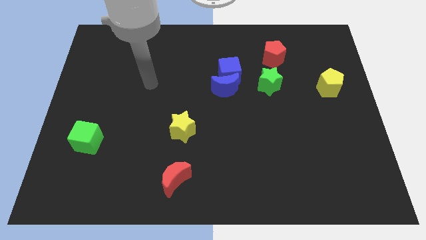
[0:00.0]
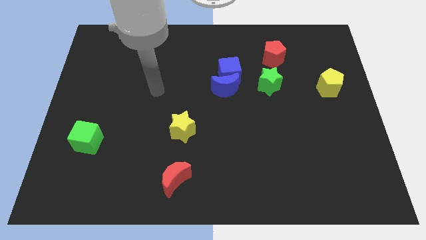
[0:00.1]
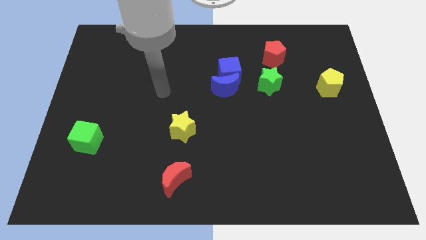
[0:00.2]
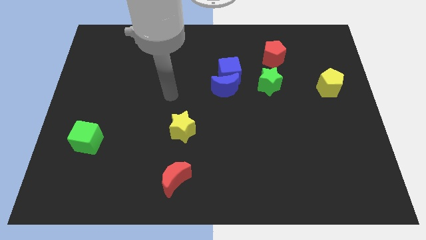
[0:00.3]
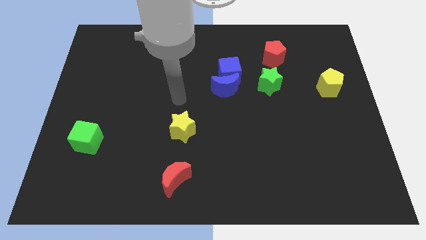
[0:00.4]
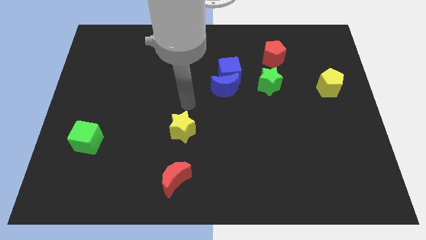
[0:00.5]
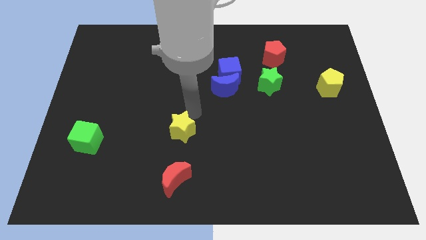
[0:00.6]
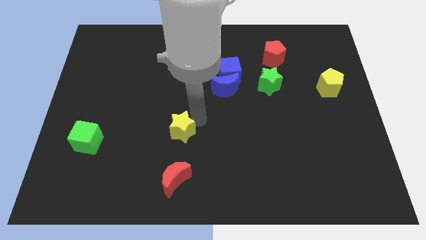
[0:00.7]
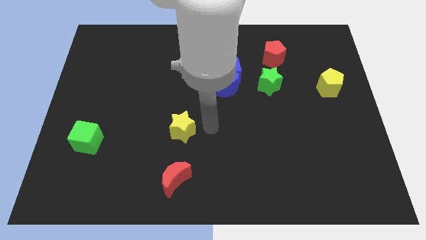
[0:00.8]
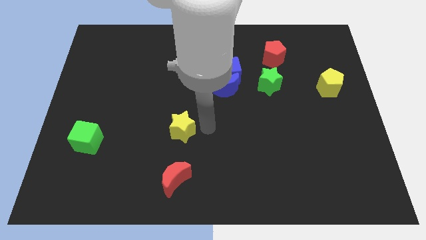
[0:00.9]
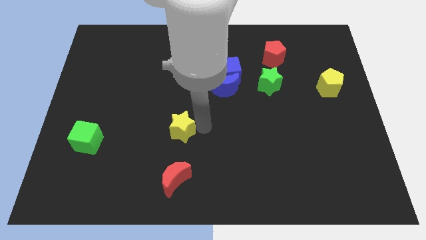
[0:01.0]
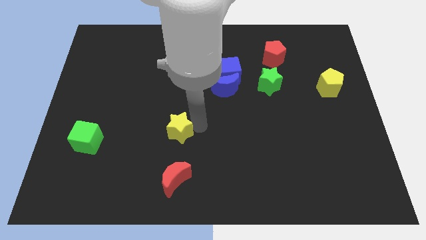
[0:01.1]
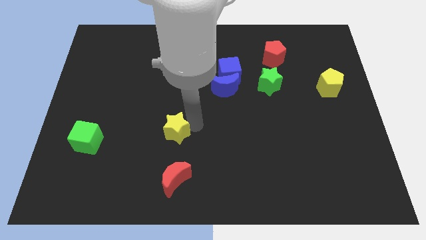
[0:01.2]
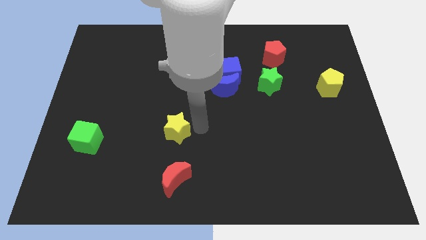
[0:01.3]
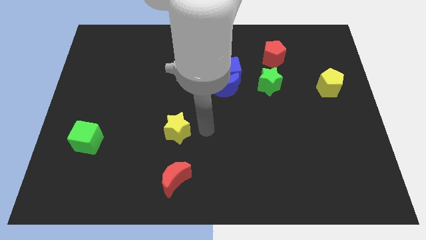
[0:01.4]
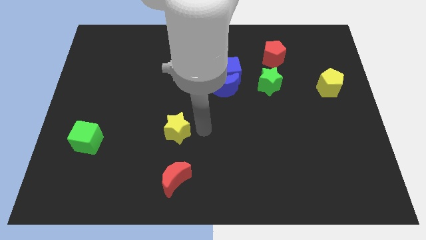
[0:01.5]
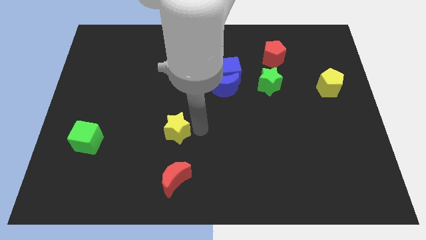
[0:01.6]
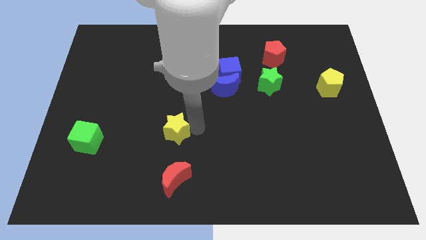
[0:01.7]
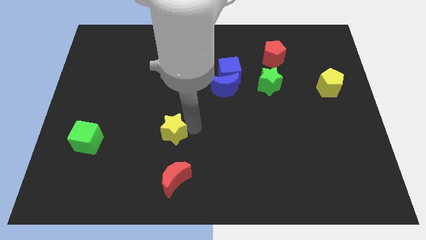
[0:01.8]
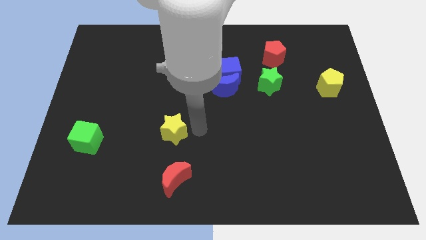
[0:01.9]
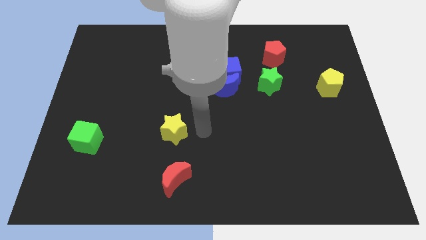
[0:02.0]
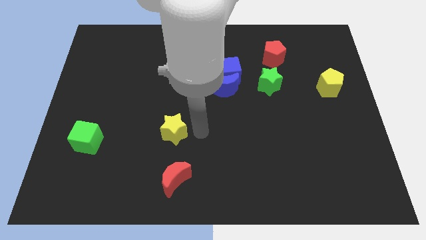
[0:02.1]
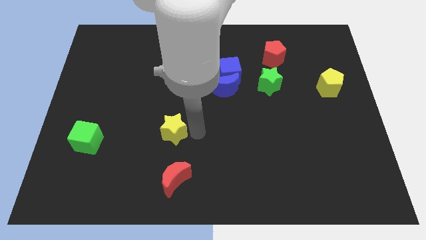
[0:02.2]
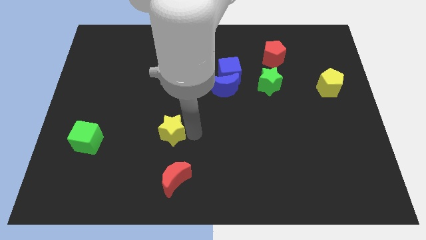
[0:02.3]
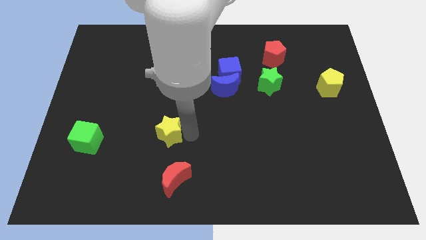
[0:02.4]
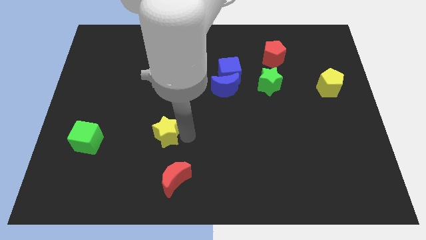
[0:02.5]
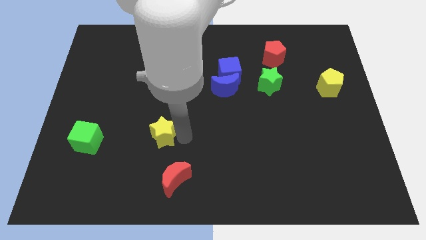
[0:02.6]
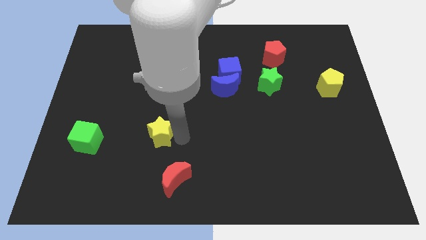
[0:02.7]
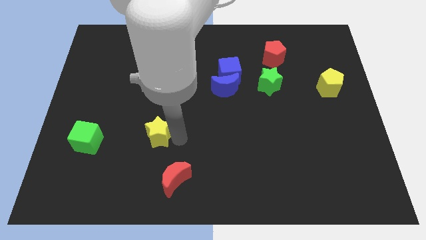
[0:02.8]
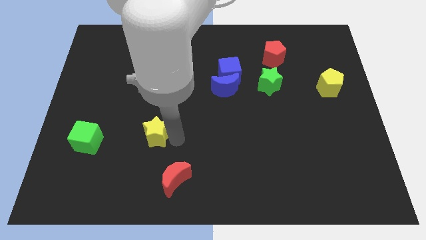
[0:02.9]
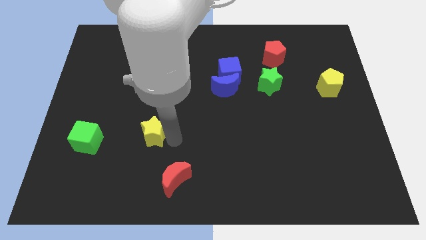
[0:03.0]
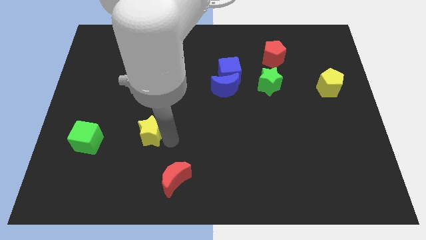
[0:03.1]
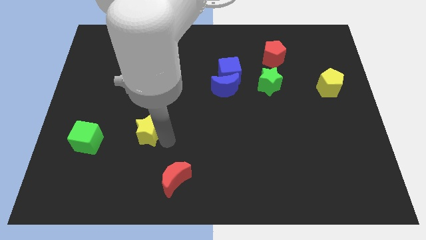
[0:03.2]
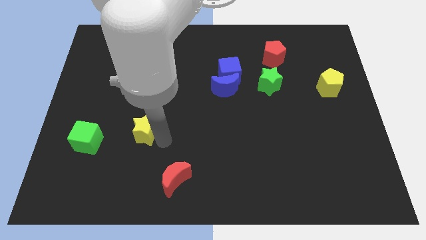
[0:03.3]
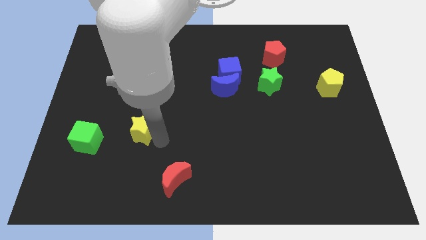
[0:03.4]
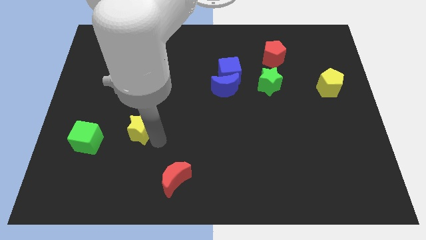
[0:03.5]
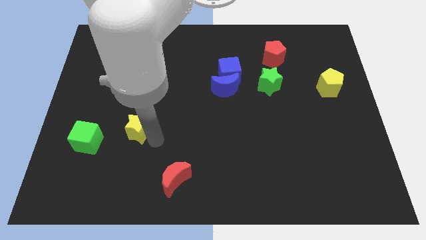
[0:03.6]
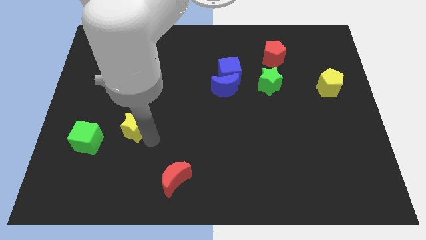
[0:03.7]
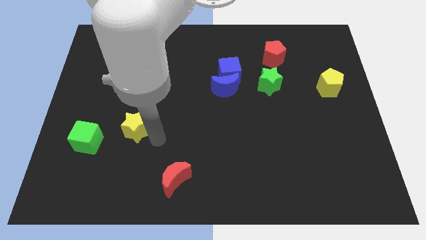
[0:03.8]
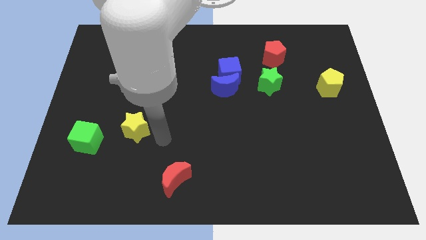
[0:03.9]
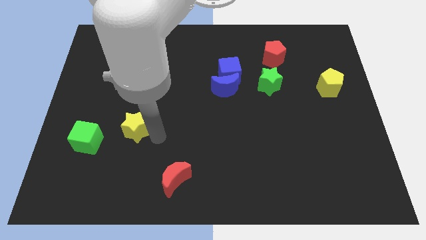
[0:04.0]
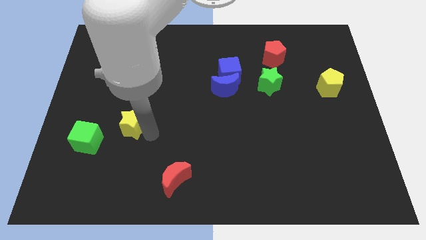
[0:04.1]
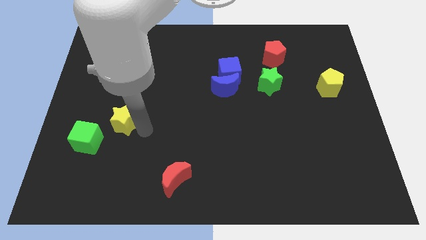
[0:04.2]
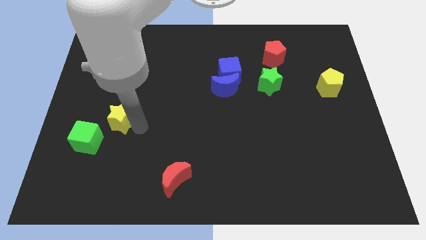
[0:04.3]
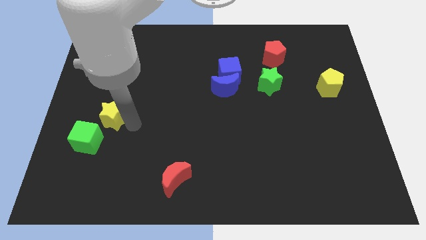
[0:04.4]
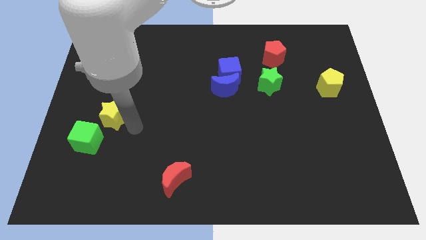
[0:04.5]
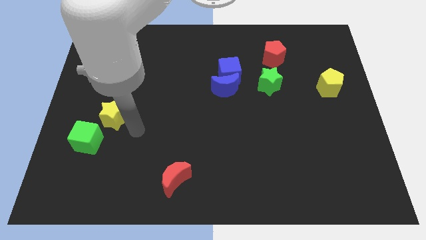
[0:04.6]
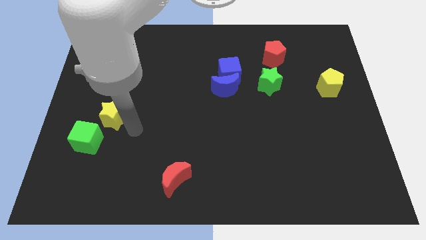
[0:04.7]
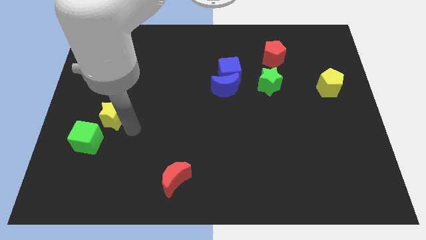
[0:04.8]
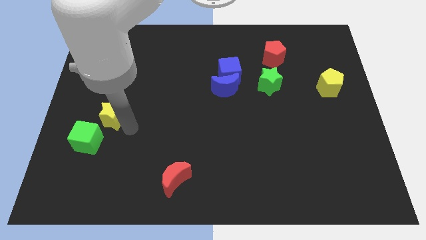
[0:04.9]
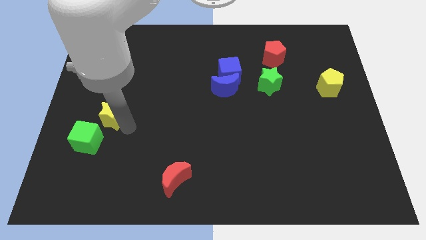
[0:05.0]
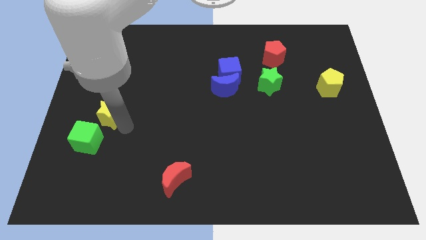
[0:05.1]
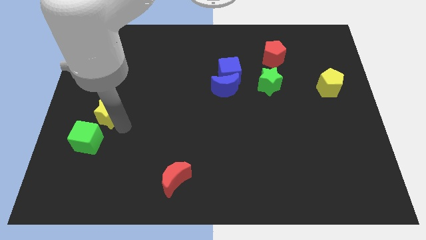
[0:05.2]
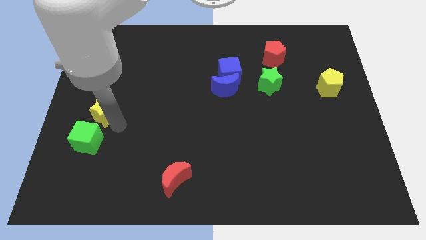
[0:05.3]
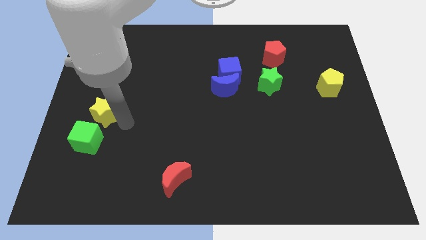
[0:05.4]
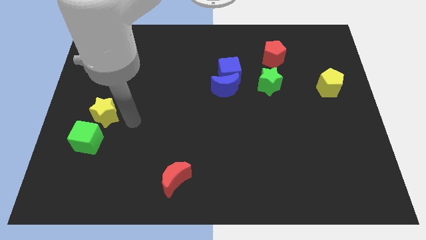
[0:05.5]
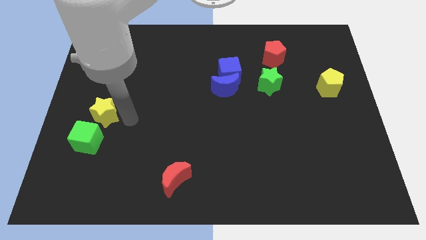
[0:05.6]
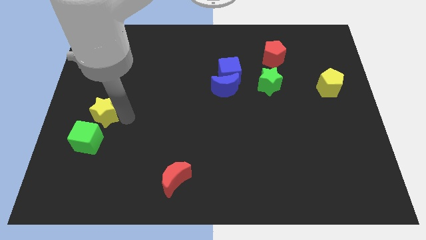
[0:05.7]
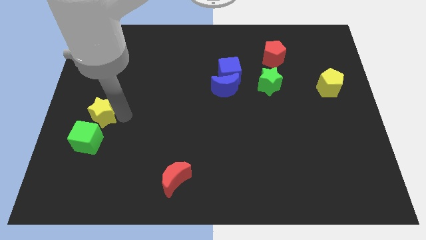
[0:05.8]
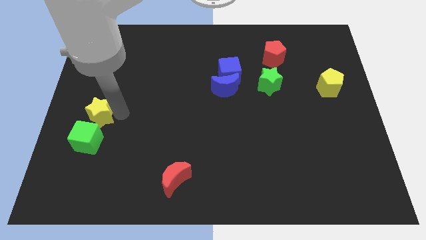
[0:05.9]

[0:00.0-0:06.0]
put the yellow star to the left side of the board

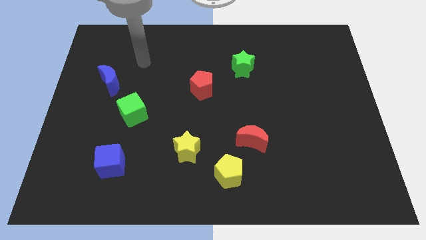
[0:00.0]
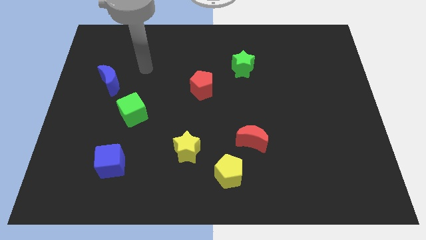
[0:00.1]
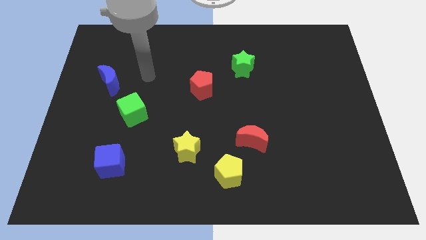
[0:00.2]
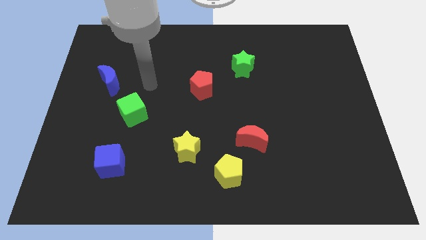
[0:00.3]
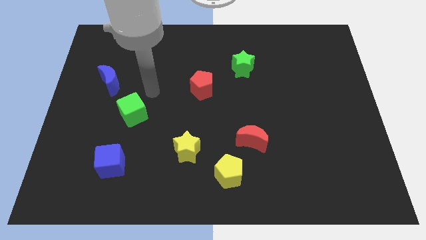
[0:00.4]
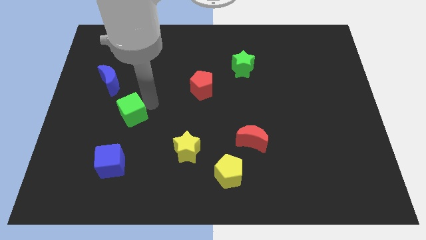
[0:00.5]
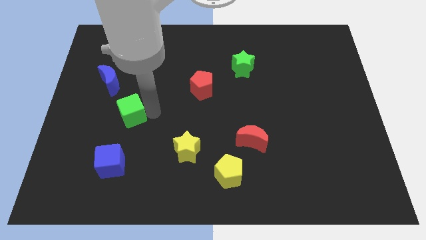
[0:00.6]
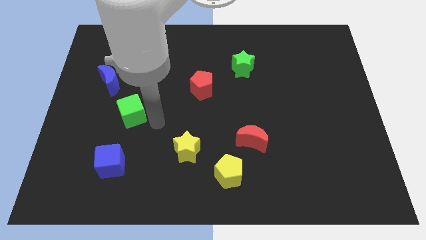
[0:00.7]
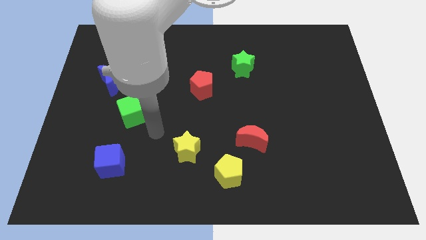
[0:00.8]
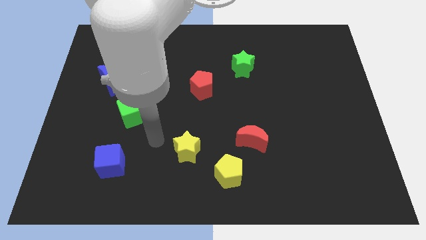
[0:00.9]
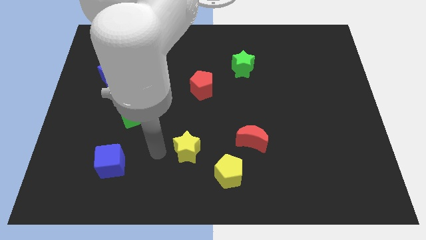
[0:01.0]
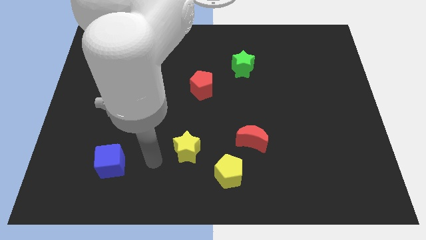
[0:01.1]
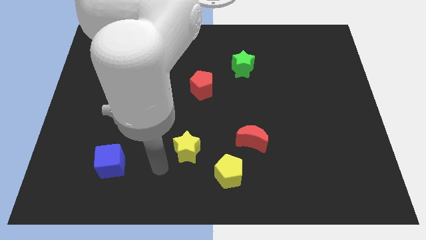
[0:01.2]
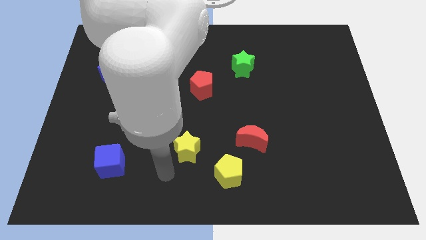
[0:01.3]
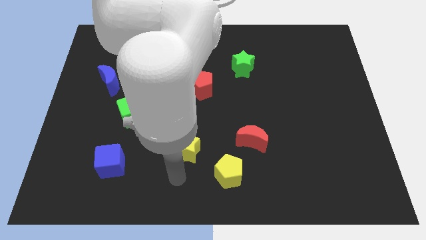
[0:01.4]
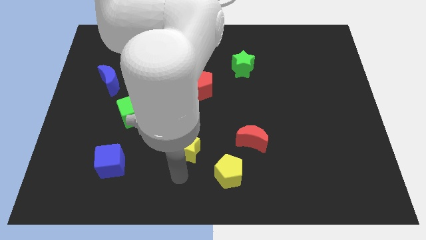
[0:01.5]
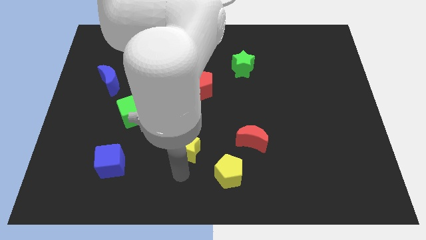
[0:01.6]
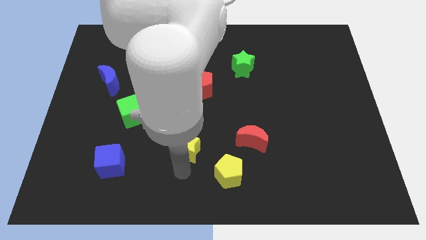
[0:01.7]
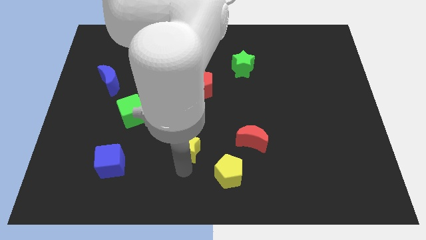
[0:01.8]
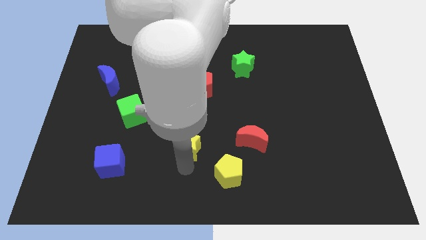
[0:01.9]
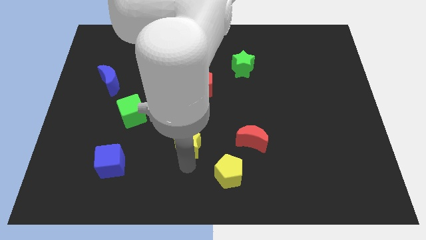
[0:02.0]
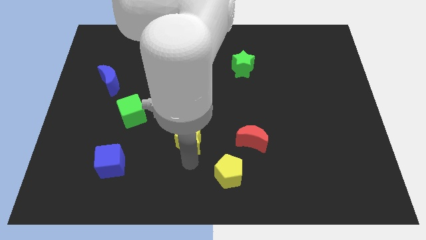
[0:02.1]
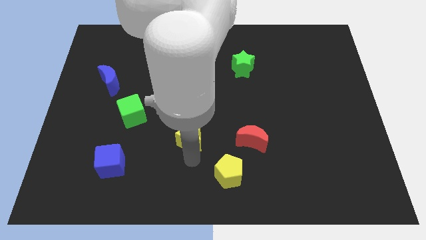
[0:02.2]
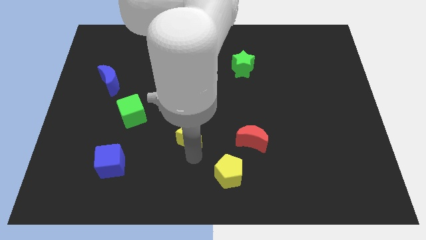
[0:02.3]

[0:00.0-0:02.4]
slide the yellow star to the middle of the board
